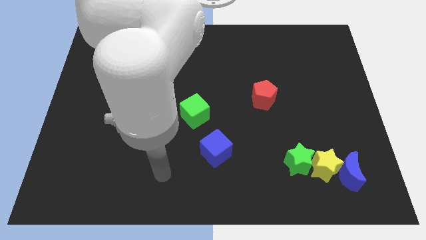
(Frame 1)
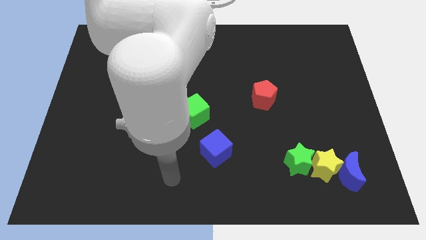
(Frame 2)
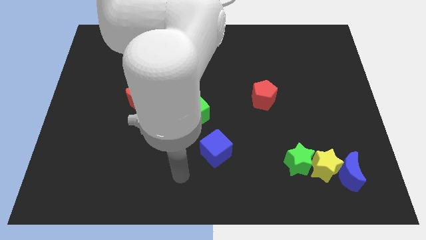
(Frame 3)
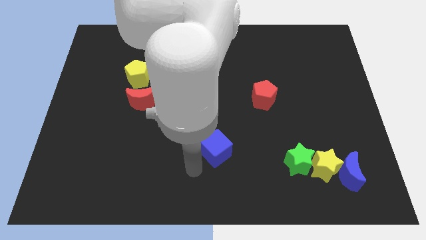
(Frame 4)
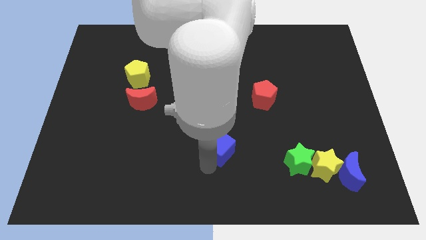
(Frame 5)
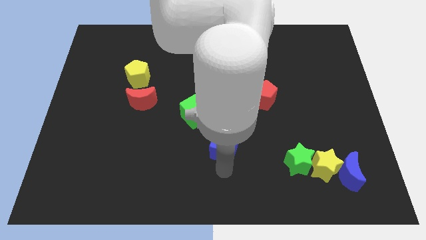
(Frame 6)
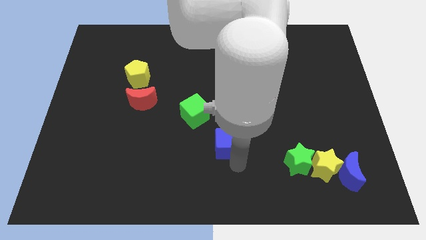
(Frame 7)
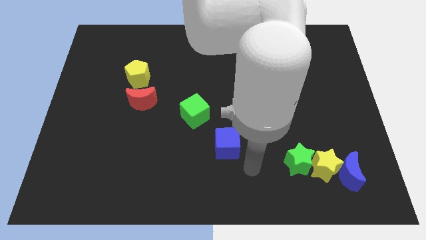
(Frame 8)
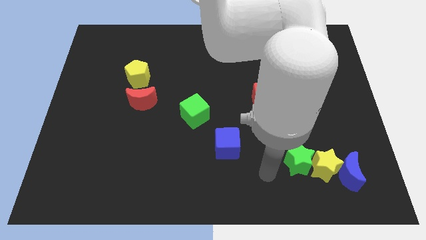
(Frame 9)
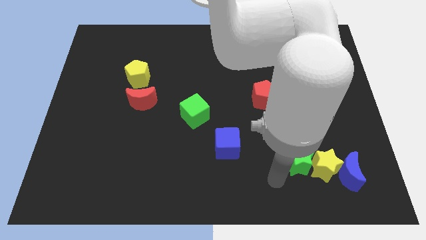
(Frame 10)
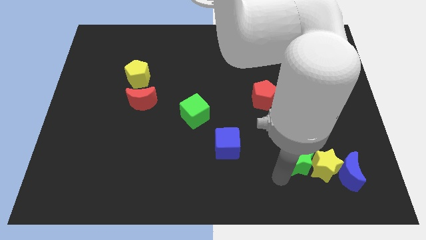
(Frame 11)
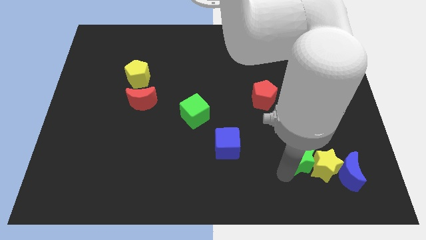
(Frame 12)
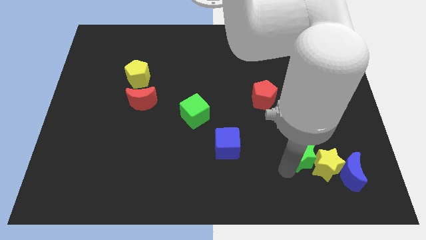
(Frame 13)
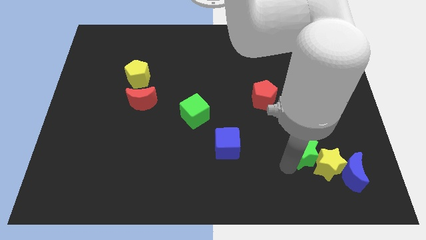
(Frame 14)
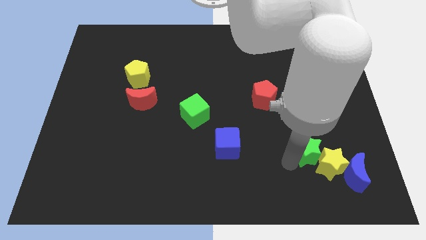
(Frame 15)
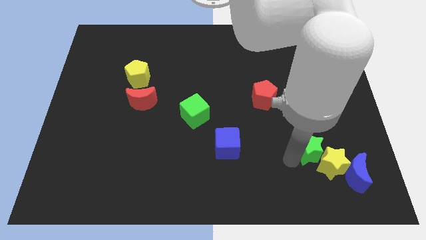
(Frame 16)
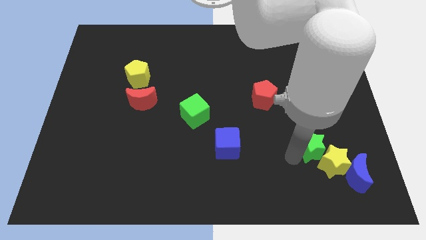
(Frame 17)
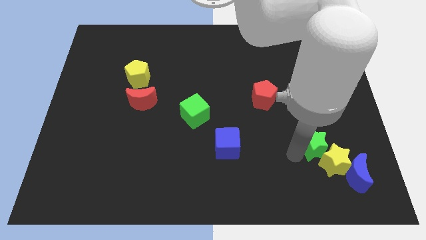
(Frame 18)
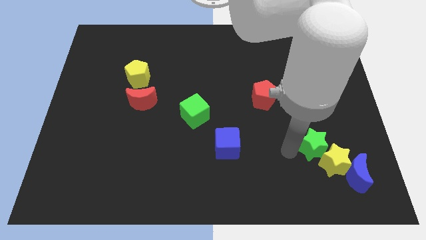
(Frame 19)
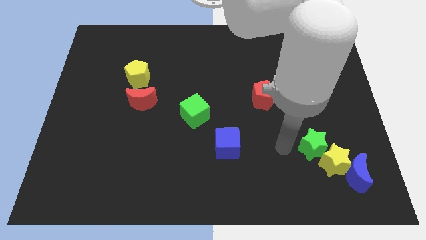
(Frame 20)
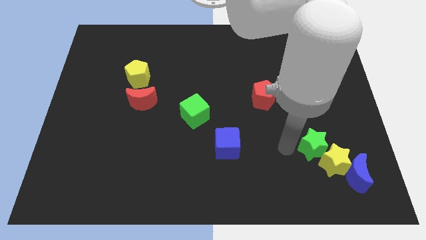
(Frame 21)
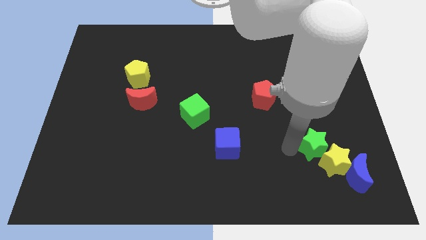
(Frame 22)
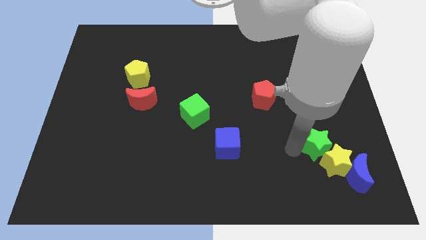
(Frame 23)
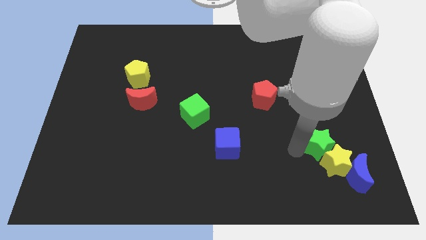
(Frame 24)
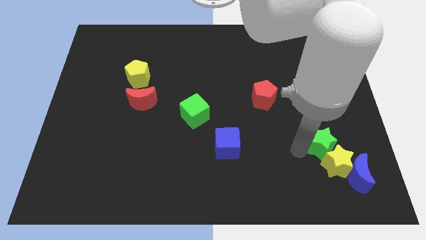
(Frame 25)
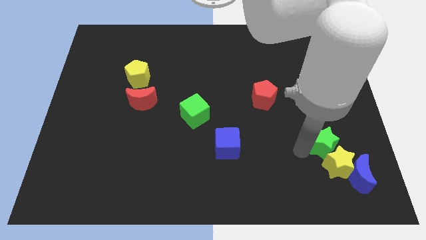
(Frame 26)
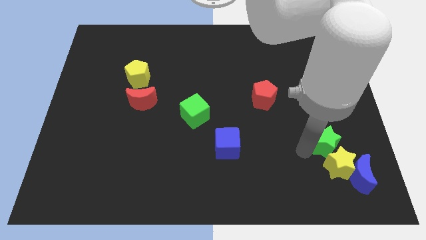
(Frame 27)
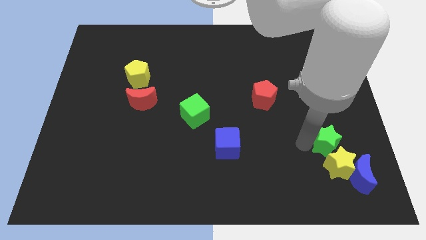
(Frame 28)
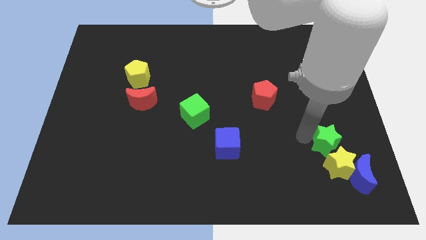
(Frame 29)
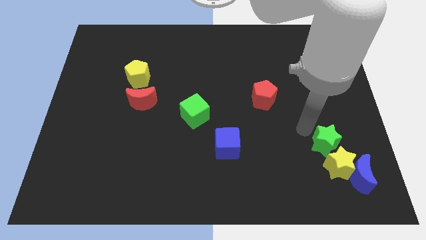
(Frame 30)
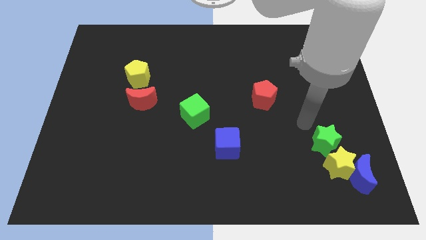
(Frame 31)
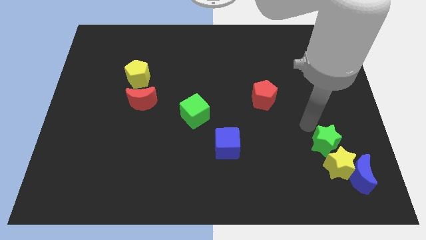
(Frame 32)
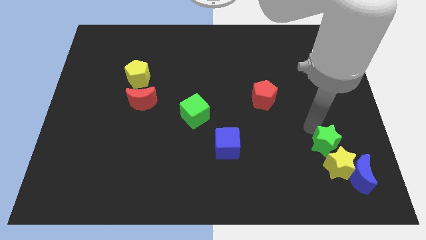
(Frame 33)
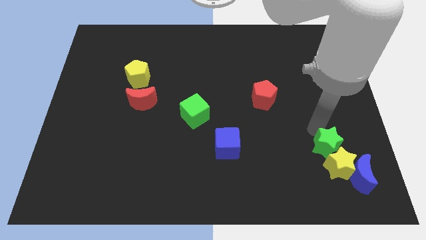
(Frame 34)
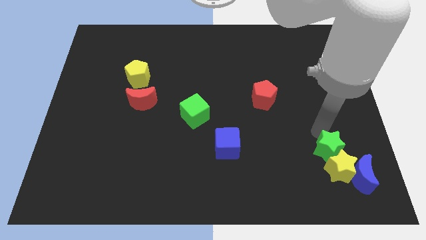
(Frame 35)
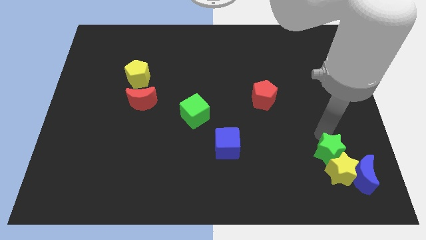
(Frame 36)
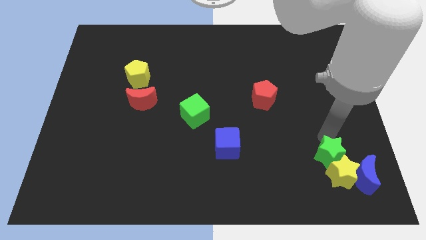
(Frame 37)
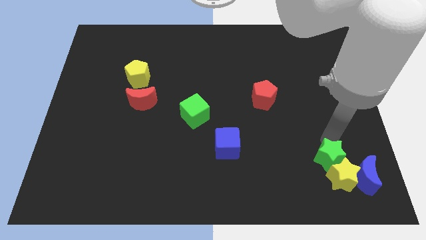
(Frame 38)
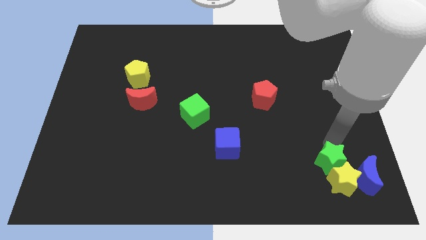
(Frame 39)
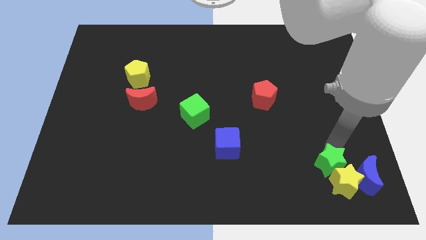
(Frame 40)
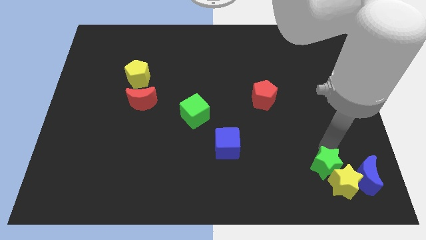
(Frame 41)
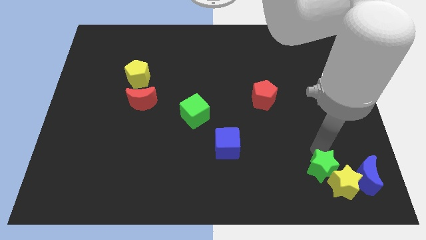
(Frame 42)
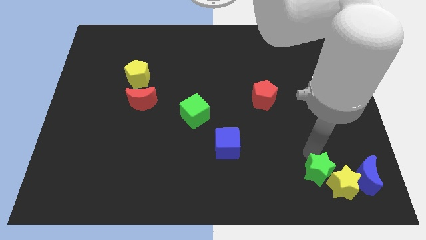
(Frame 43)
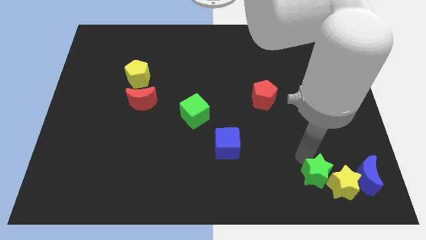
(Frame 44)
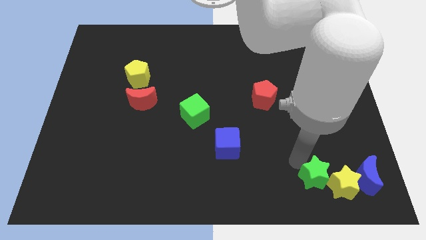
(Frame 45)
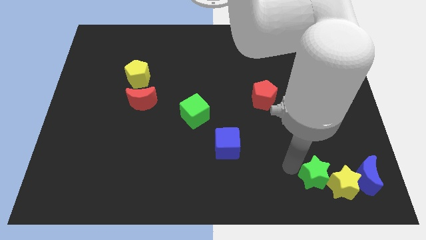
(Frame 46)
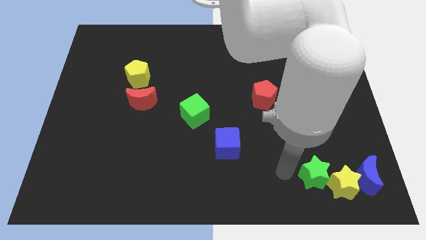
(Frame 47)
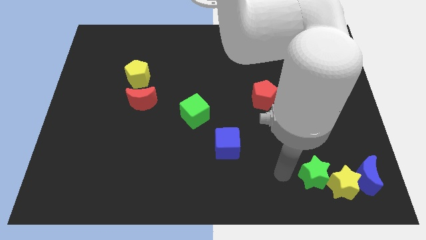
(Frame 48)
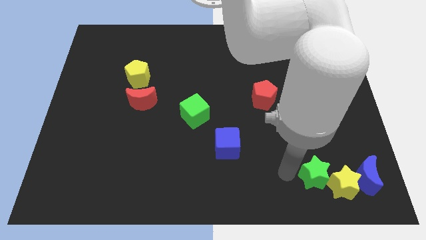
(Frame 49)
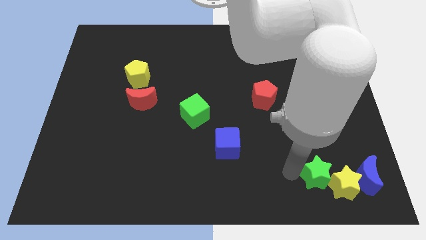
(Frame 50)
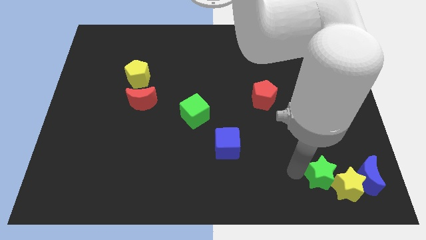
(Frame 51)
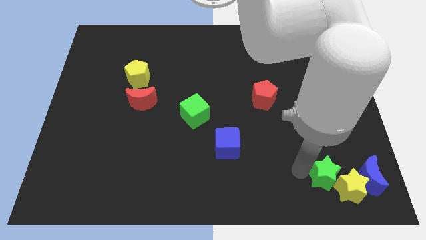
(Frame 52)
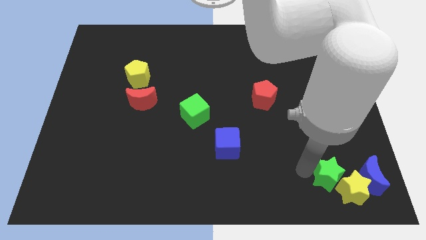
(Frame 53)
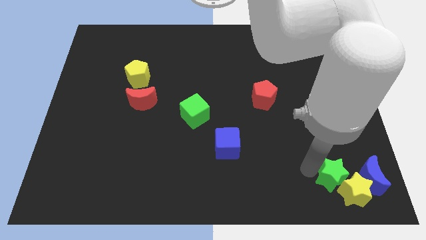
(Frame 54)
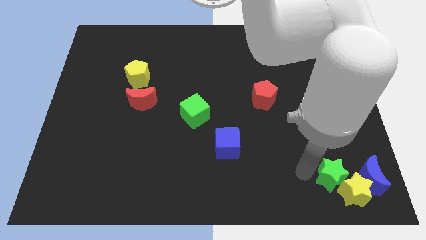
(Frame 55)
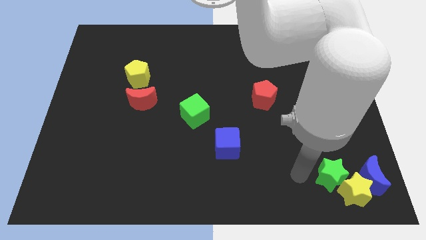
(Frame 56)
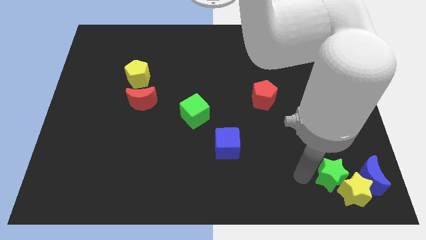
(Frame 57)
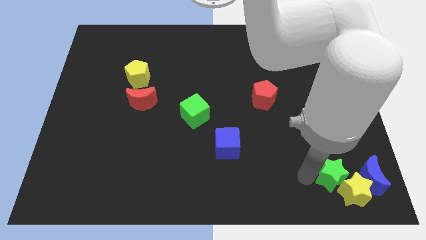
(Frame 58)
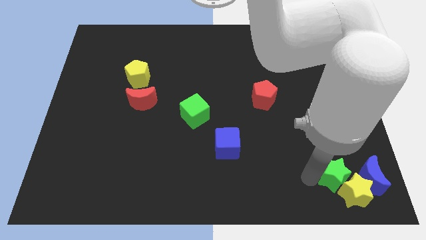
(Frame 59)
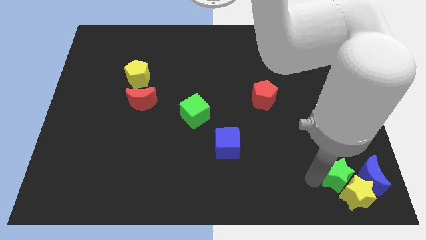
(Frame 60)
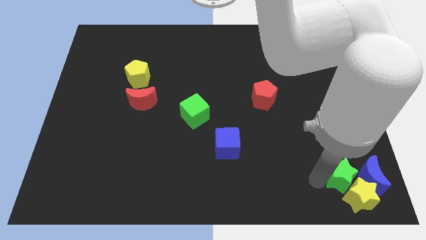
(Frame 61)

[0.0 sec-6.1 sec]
push the green star next to the blue moon

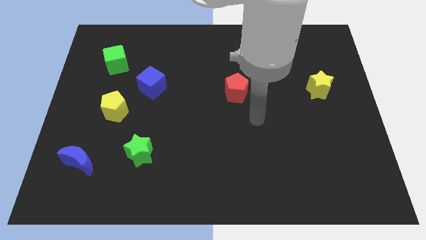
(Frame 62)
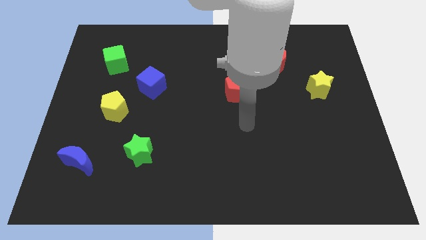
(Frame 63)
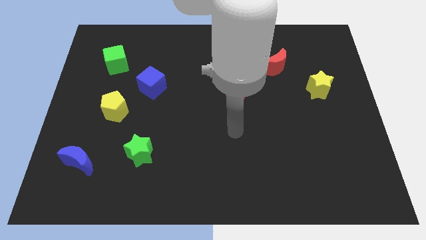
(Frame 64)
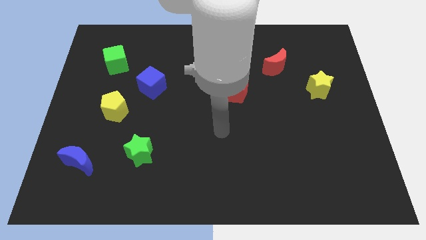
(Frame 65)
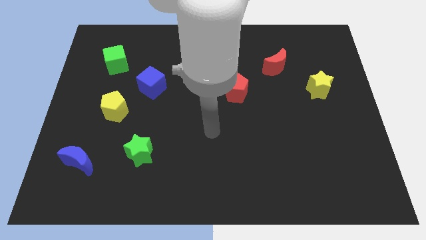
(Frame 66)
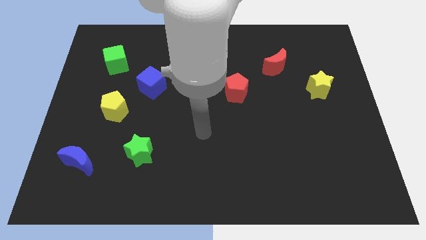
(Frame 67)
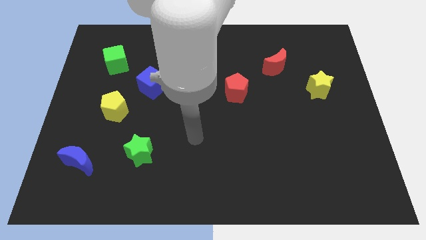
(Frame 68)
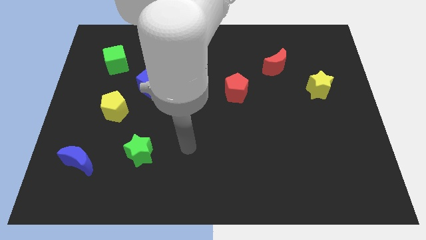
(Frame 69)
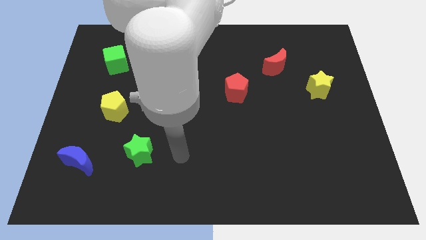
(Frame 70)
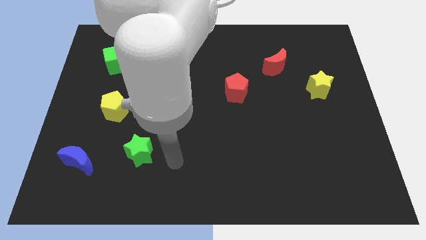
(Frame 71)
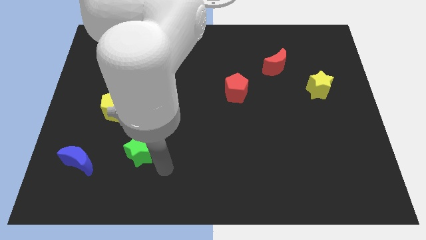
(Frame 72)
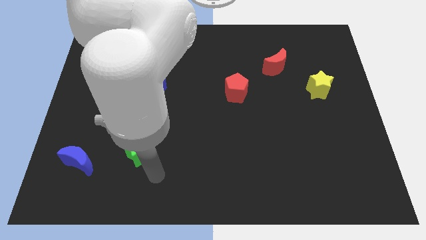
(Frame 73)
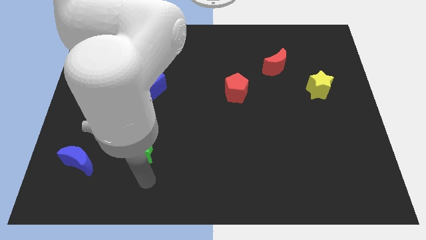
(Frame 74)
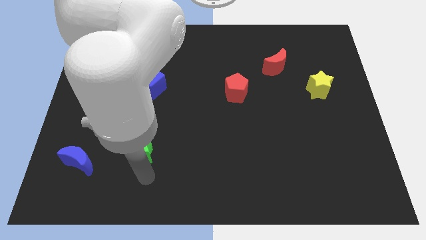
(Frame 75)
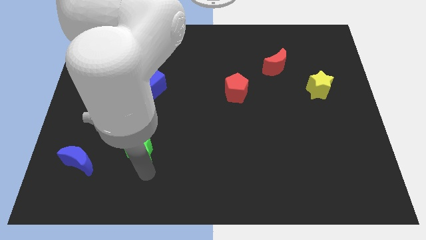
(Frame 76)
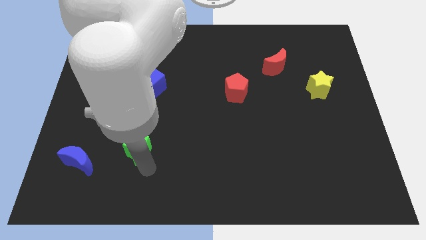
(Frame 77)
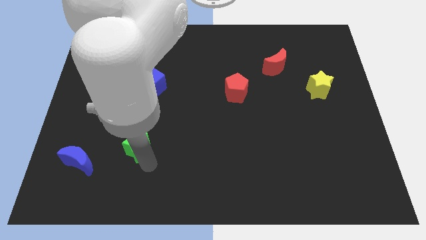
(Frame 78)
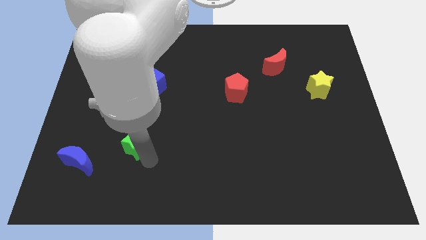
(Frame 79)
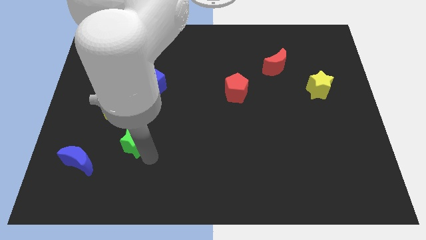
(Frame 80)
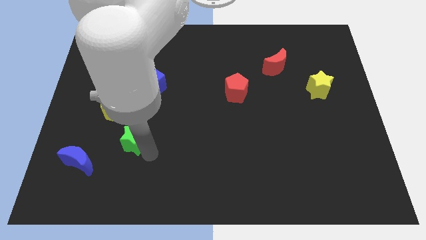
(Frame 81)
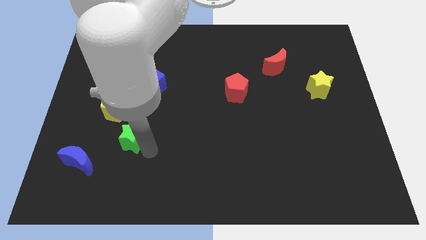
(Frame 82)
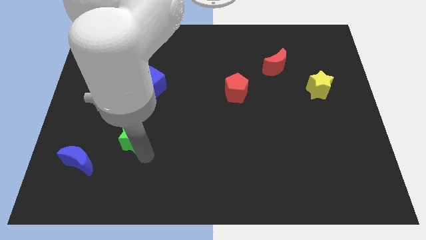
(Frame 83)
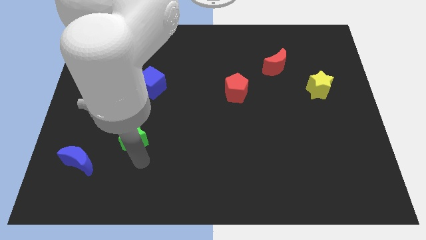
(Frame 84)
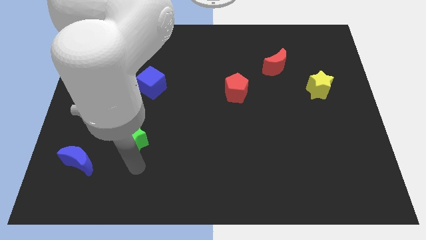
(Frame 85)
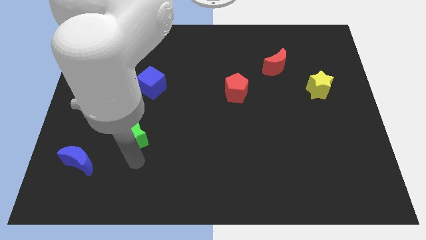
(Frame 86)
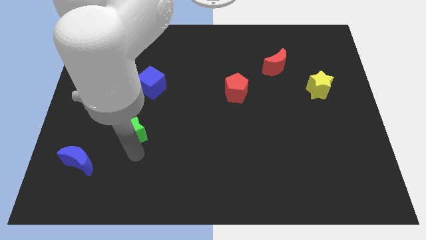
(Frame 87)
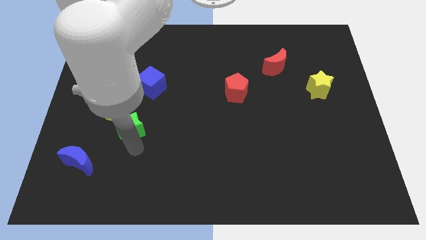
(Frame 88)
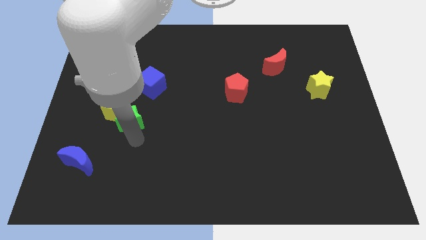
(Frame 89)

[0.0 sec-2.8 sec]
push the green star to the yellow pentagon
